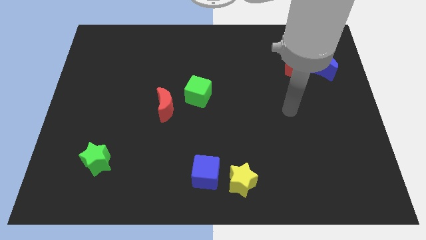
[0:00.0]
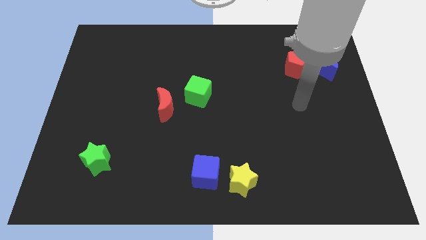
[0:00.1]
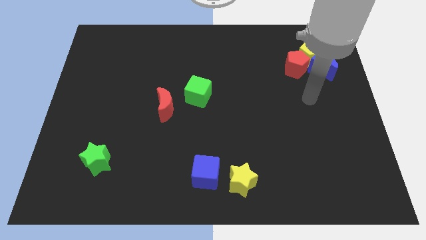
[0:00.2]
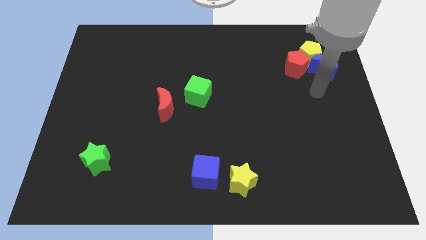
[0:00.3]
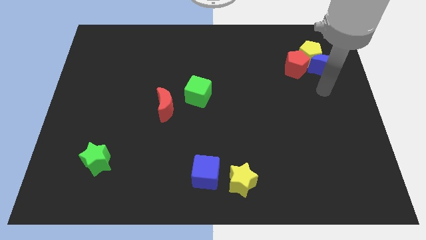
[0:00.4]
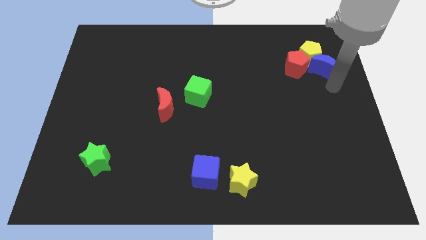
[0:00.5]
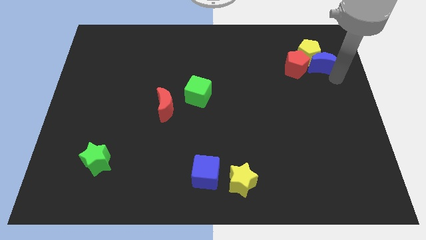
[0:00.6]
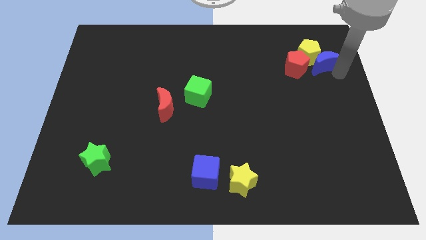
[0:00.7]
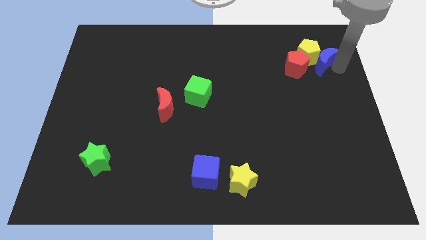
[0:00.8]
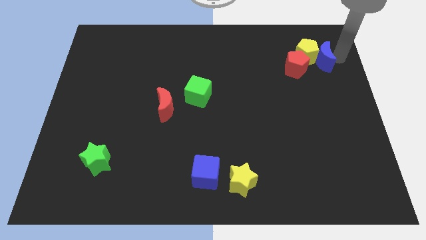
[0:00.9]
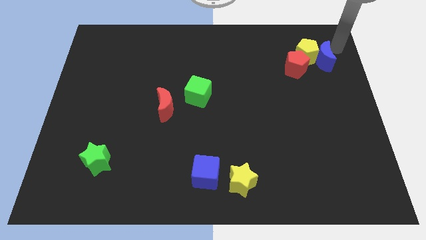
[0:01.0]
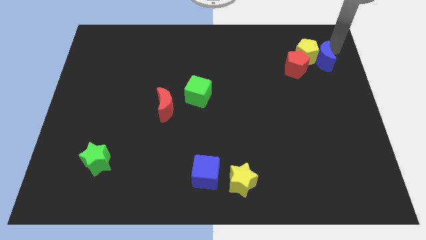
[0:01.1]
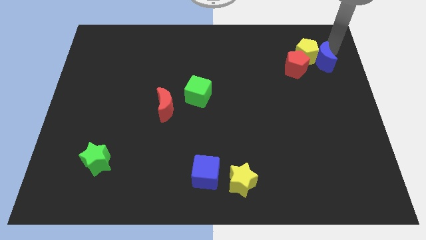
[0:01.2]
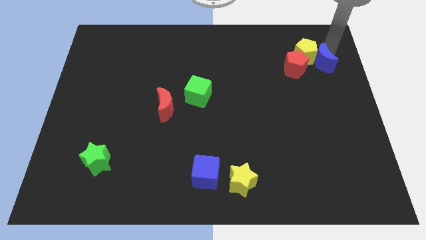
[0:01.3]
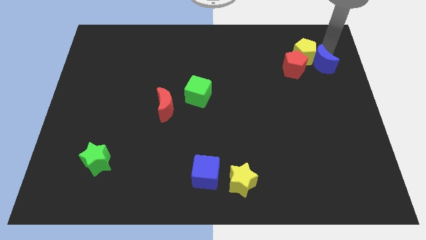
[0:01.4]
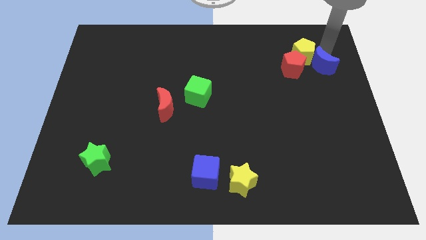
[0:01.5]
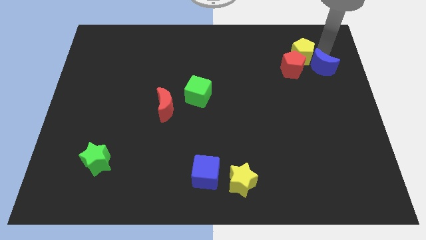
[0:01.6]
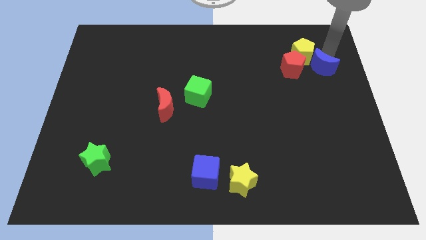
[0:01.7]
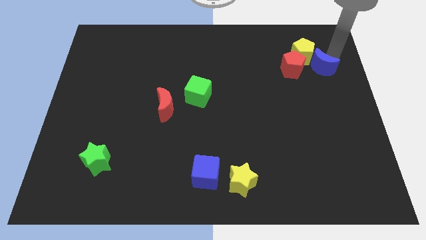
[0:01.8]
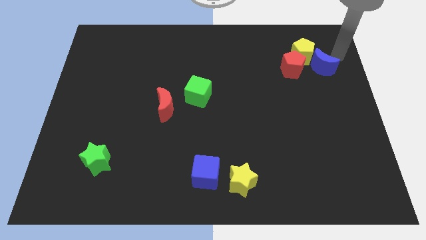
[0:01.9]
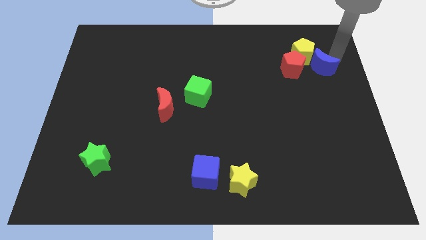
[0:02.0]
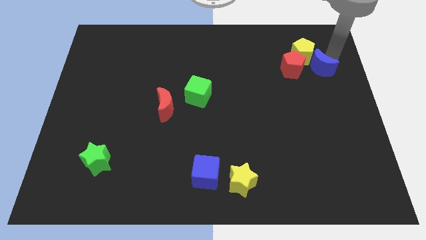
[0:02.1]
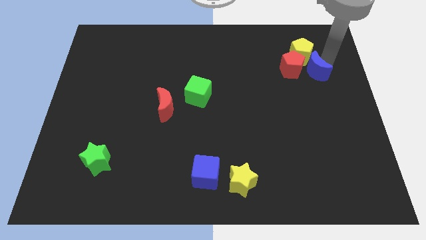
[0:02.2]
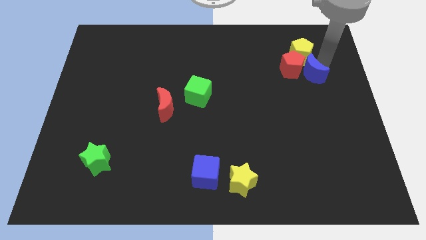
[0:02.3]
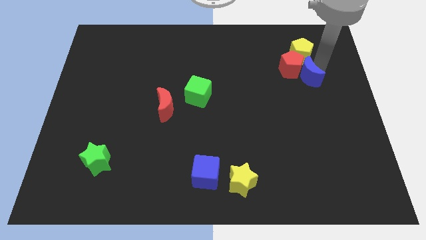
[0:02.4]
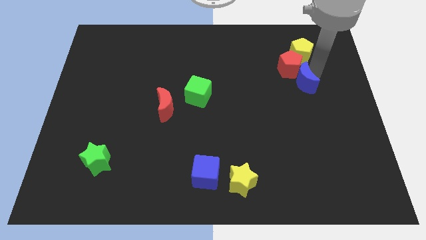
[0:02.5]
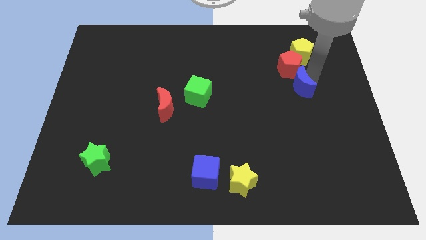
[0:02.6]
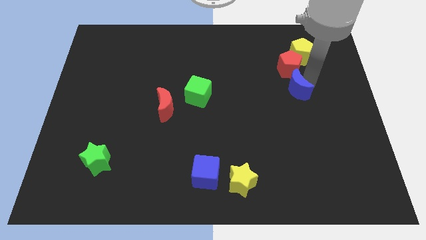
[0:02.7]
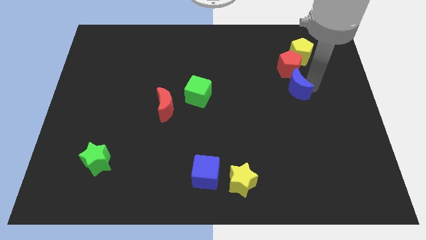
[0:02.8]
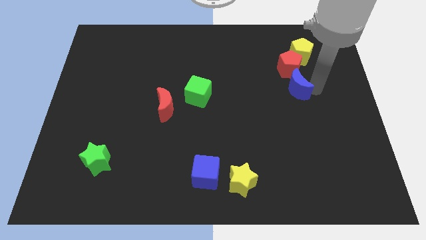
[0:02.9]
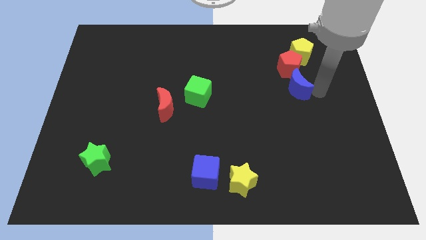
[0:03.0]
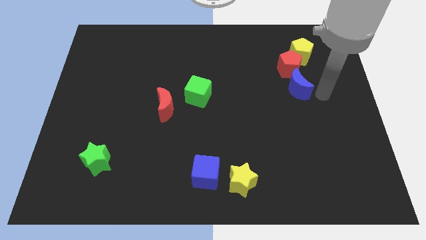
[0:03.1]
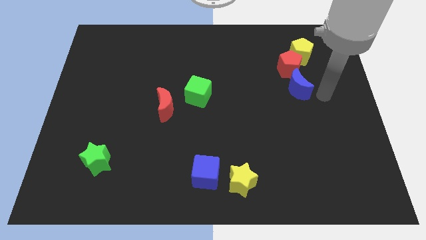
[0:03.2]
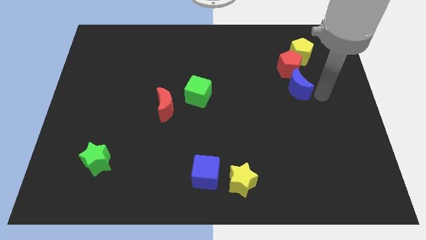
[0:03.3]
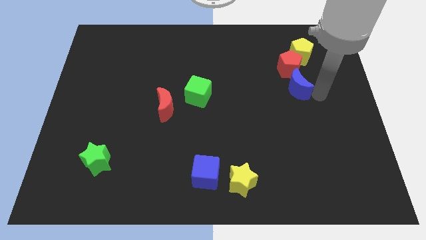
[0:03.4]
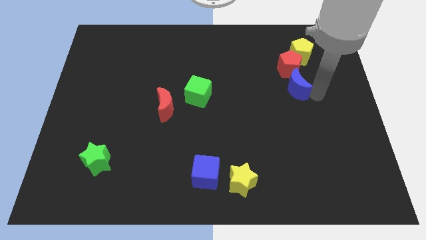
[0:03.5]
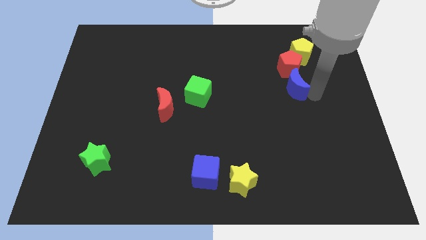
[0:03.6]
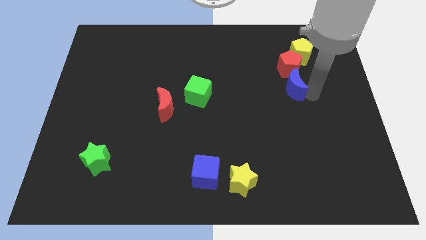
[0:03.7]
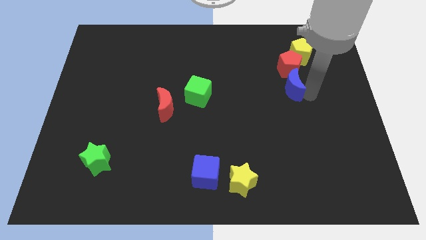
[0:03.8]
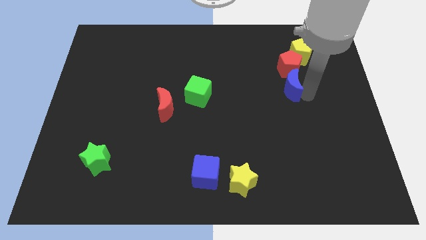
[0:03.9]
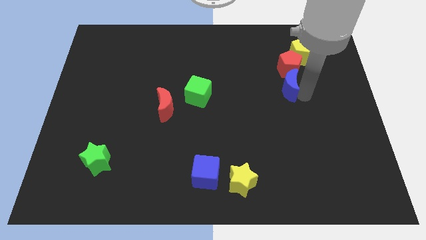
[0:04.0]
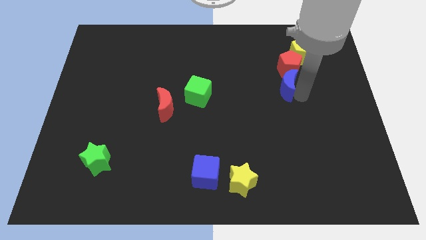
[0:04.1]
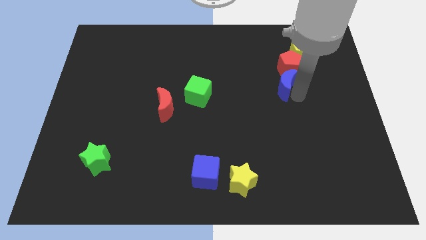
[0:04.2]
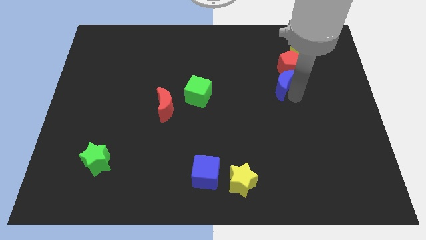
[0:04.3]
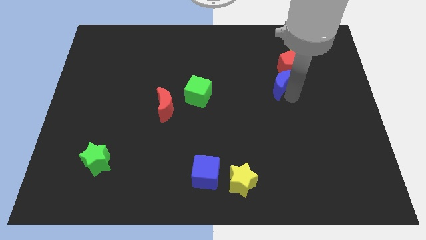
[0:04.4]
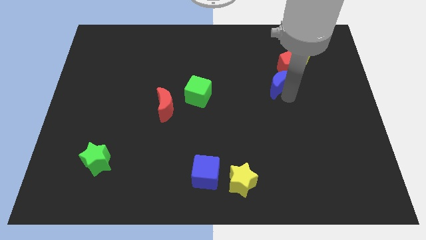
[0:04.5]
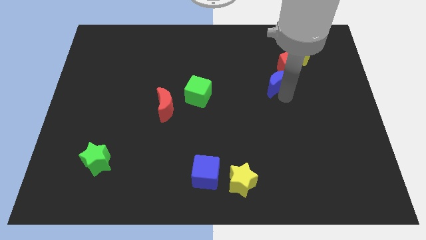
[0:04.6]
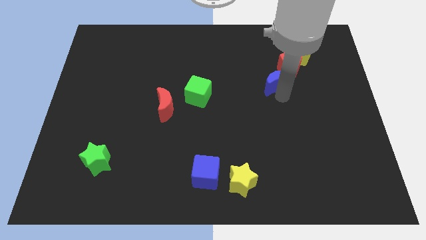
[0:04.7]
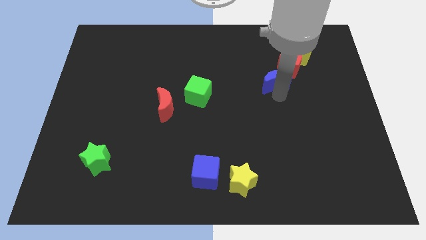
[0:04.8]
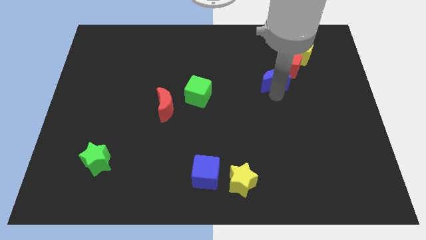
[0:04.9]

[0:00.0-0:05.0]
put the blue moon to the bottom left of the yellow pentagon

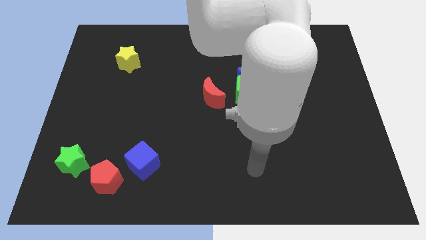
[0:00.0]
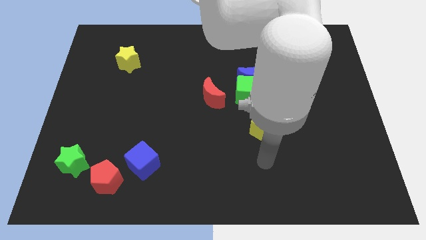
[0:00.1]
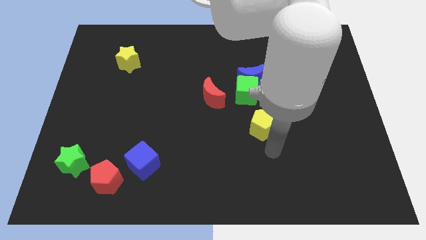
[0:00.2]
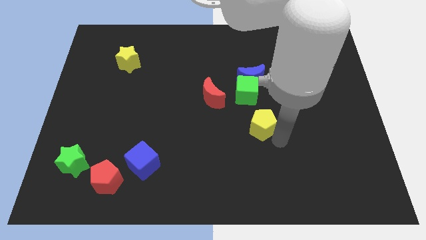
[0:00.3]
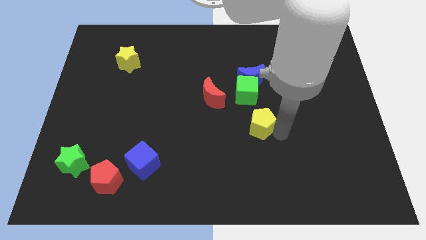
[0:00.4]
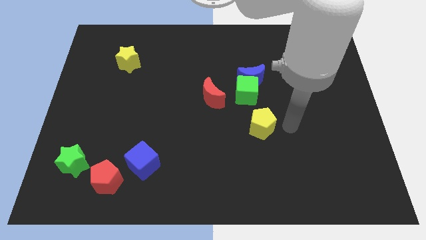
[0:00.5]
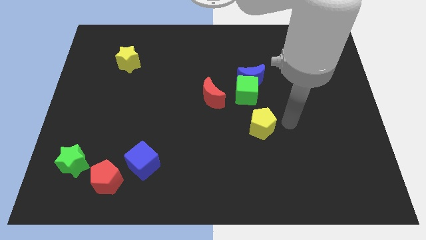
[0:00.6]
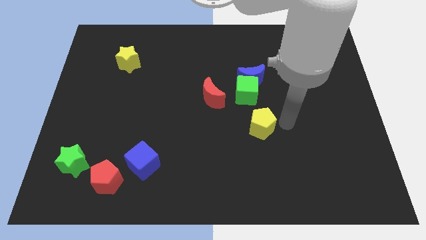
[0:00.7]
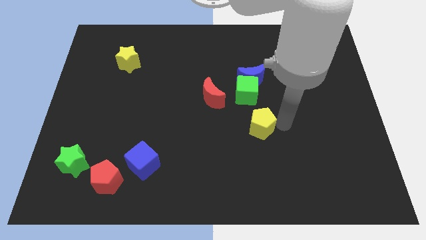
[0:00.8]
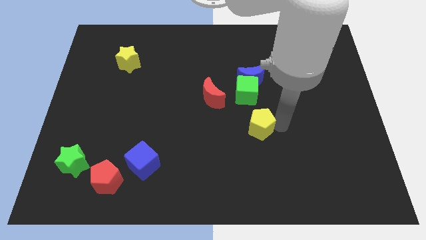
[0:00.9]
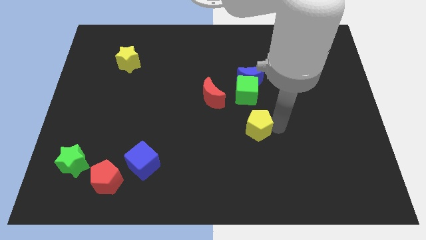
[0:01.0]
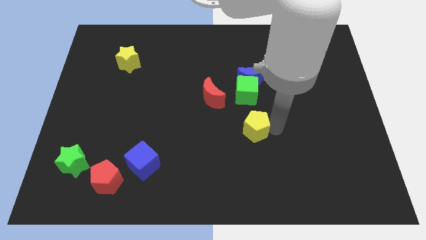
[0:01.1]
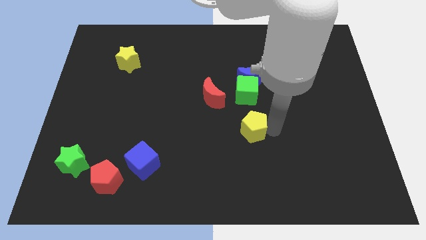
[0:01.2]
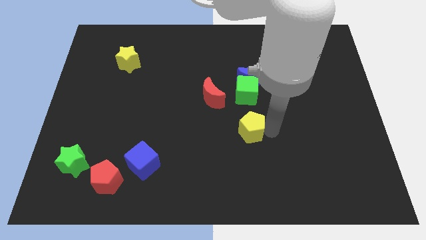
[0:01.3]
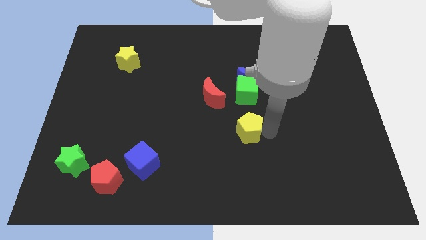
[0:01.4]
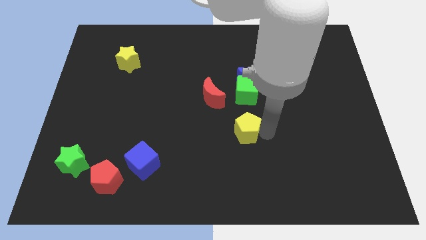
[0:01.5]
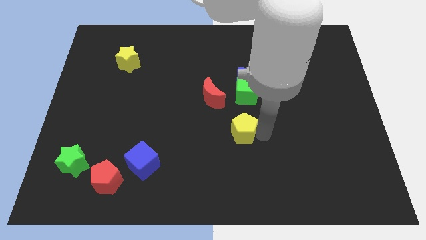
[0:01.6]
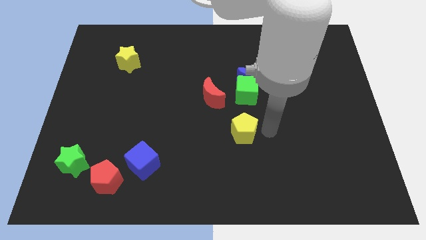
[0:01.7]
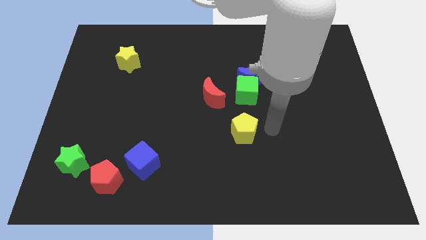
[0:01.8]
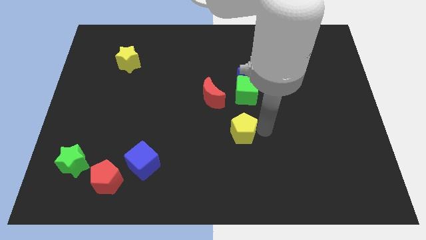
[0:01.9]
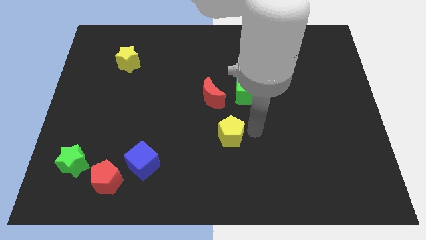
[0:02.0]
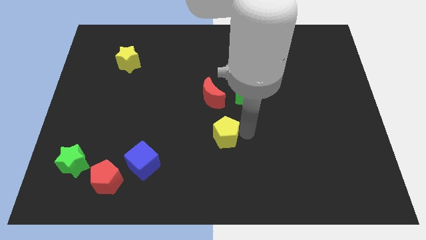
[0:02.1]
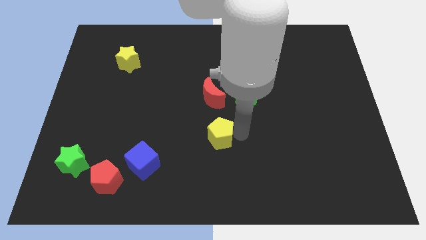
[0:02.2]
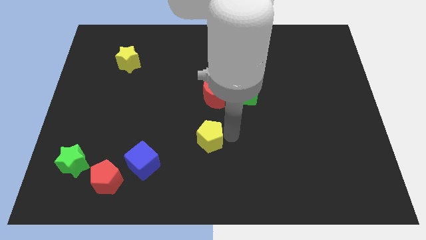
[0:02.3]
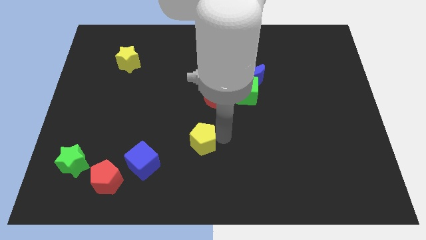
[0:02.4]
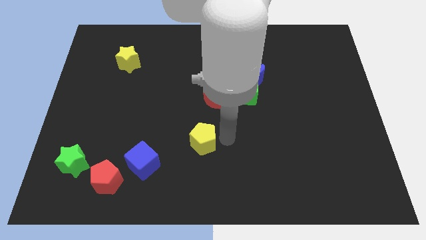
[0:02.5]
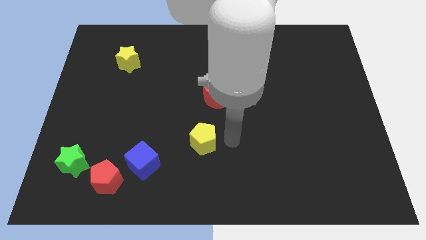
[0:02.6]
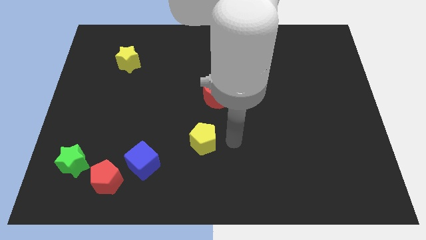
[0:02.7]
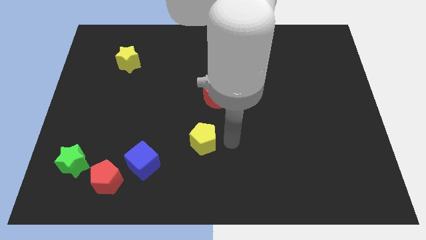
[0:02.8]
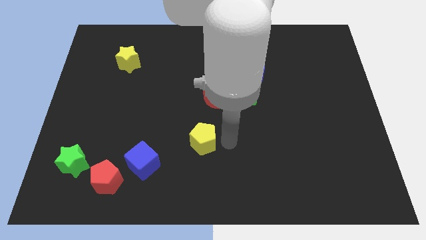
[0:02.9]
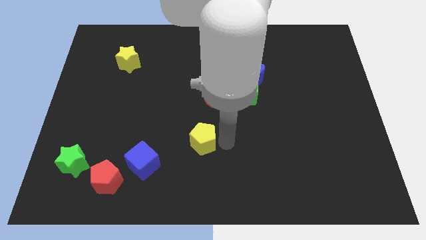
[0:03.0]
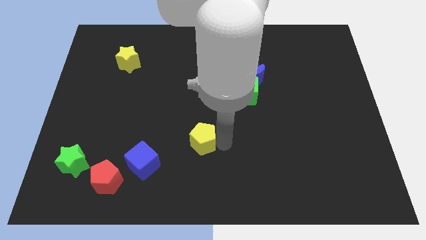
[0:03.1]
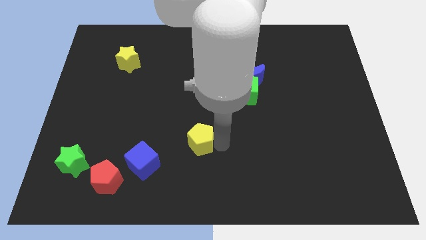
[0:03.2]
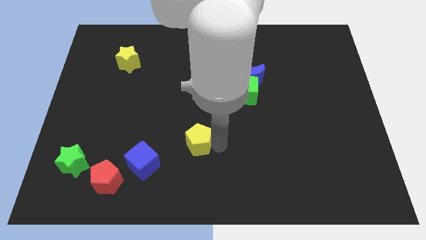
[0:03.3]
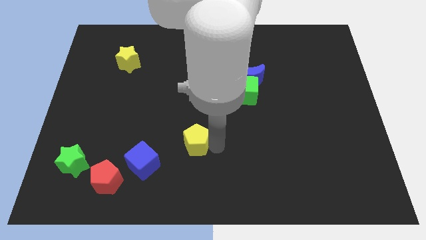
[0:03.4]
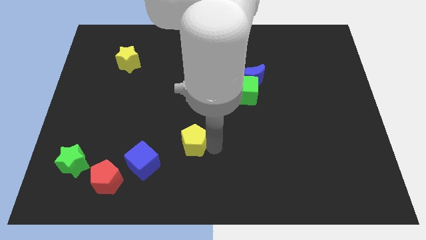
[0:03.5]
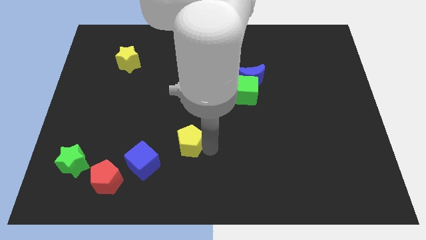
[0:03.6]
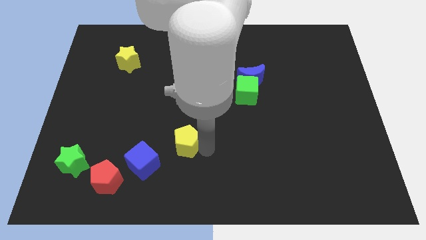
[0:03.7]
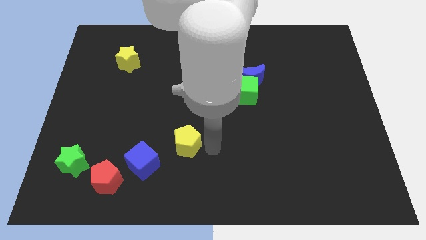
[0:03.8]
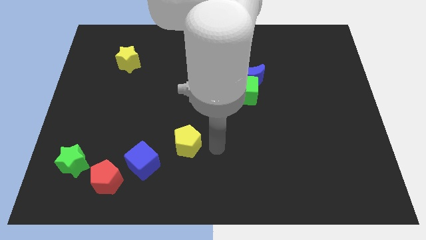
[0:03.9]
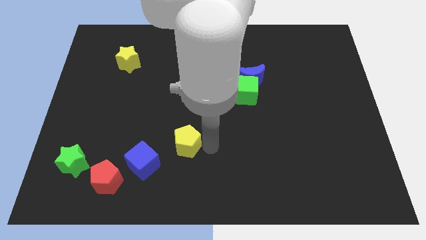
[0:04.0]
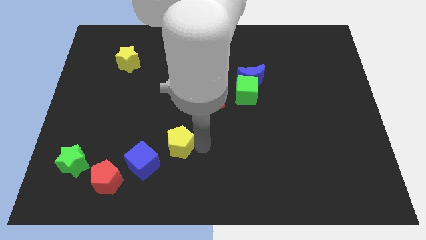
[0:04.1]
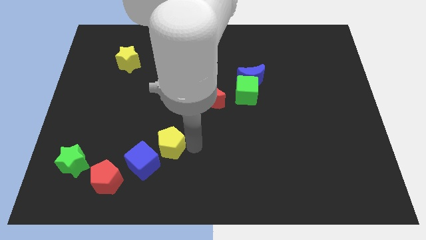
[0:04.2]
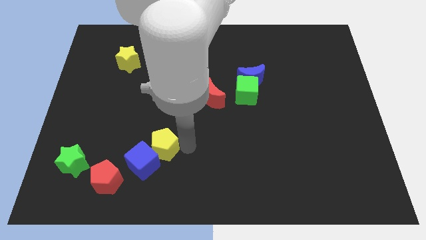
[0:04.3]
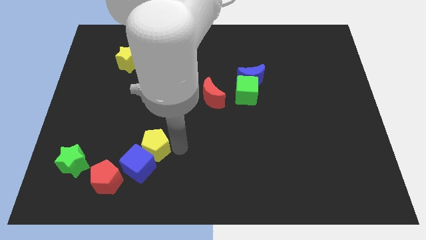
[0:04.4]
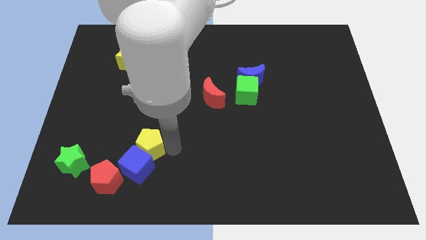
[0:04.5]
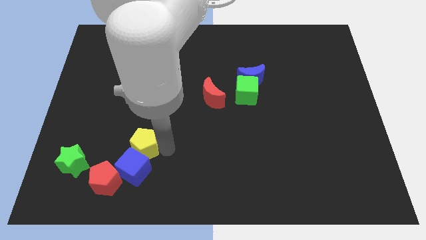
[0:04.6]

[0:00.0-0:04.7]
push the yellow pentagon to the top left side of the blue cube
